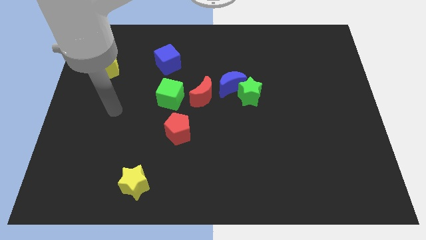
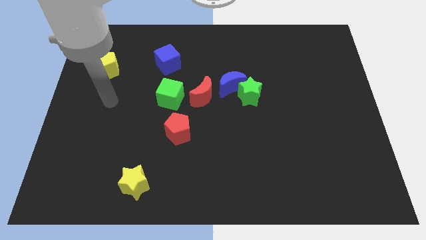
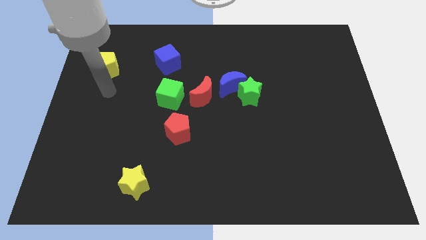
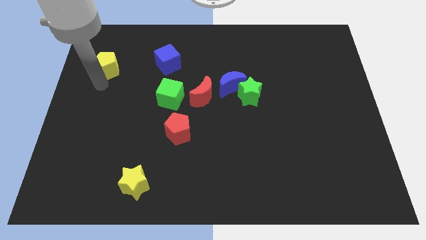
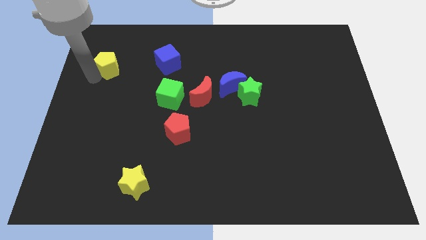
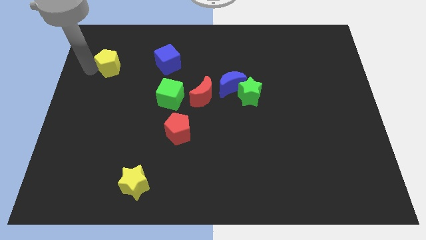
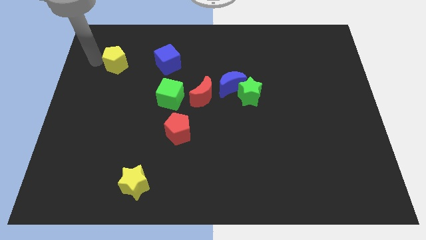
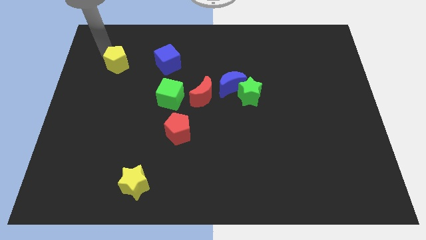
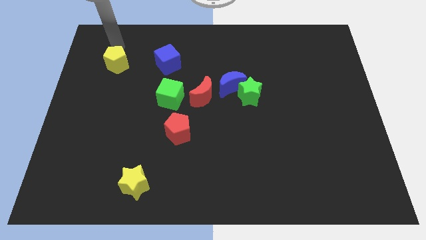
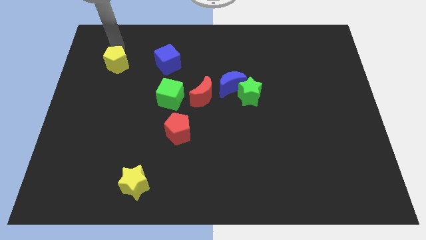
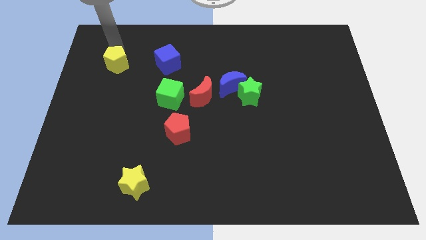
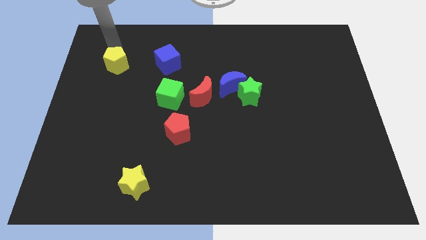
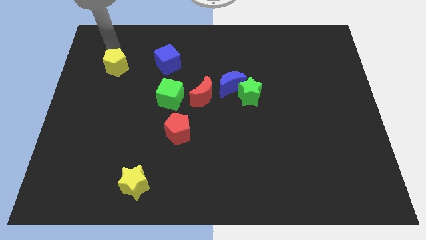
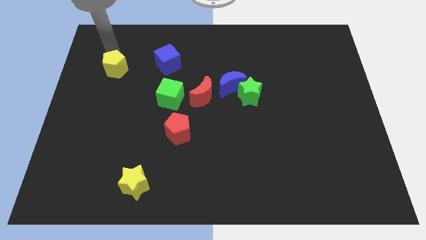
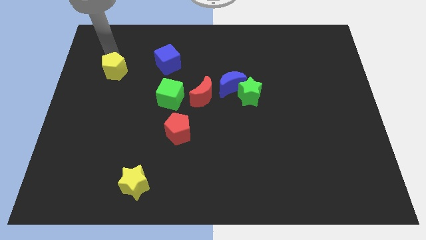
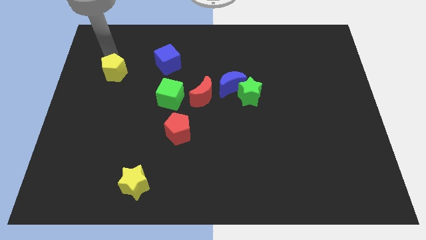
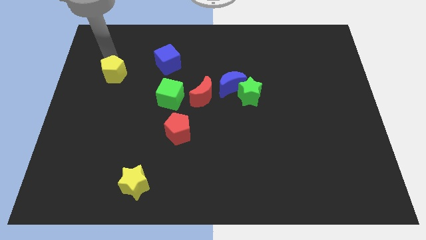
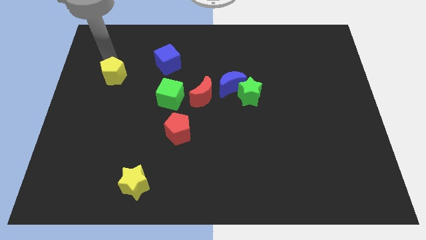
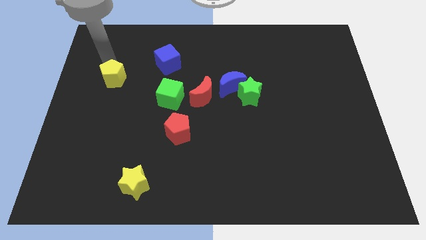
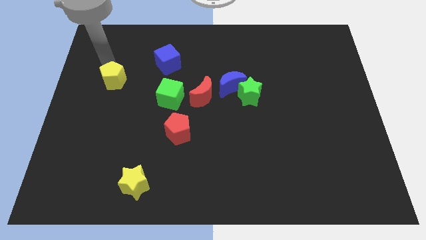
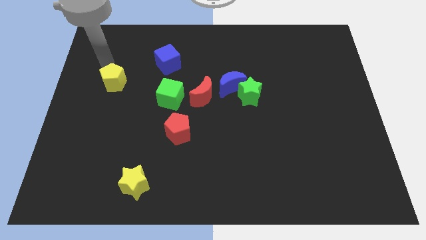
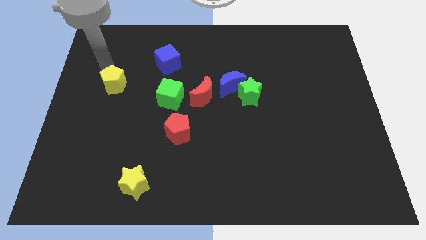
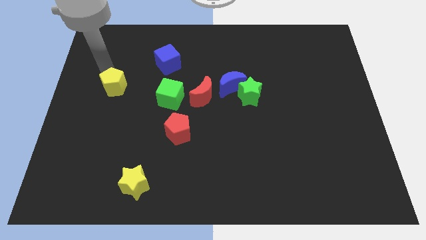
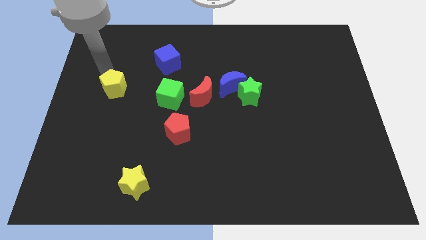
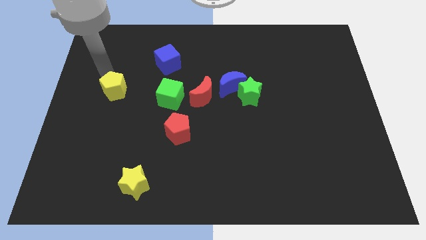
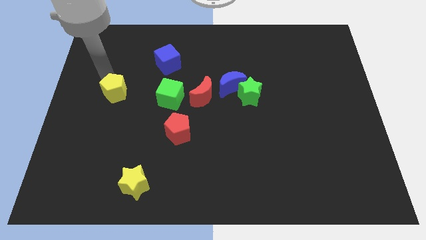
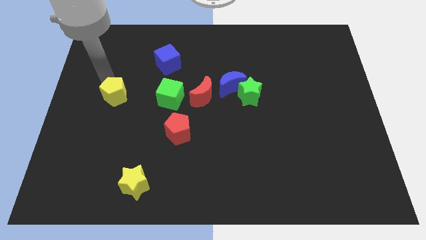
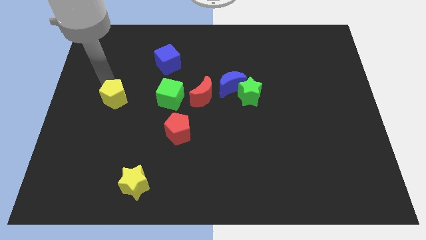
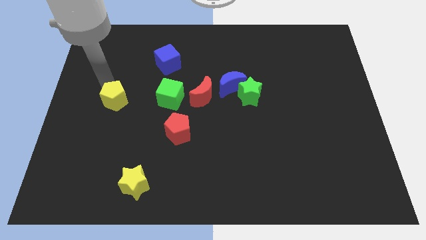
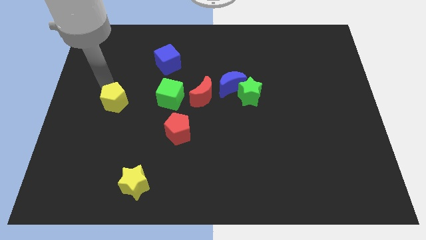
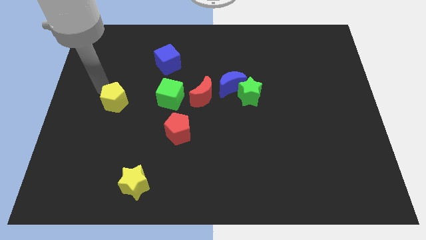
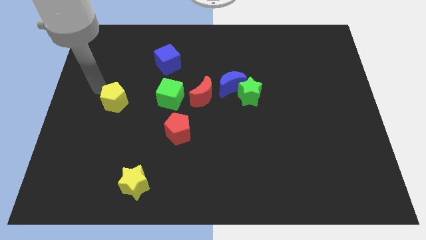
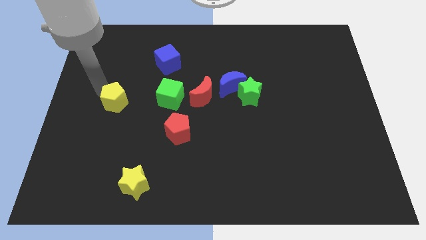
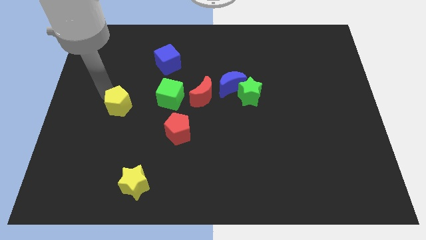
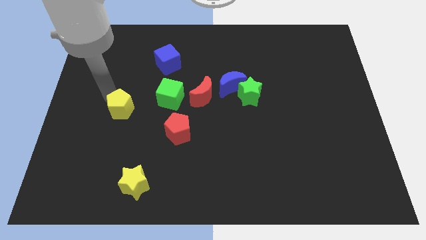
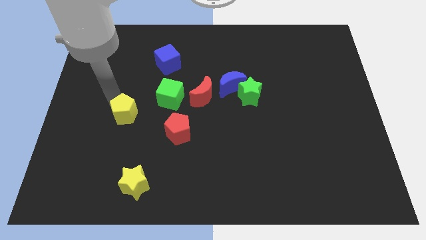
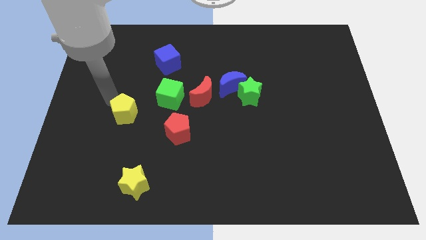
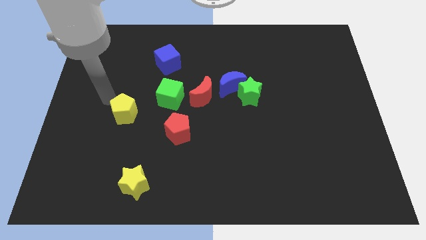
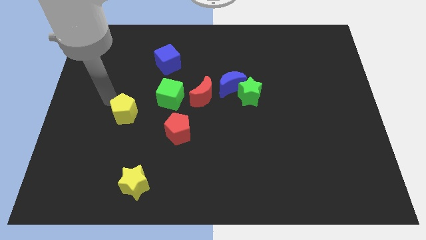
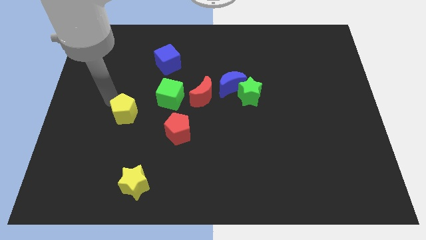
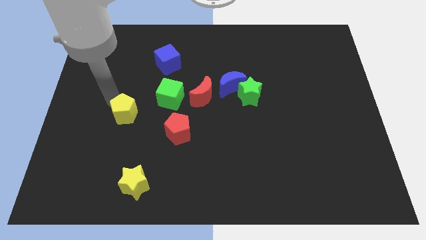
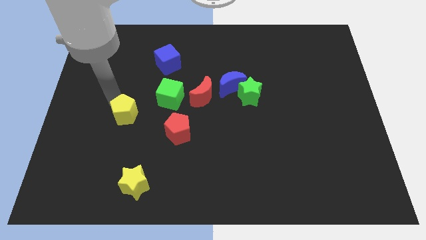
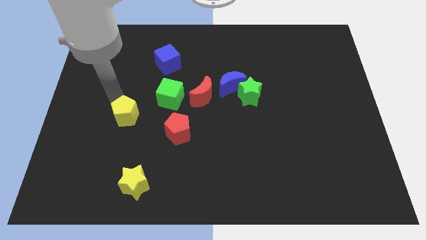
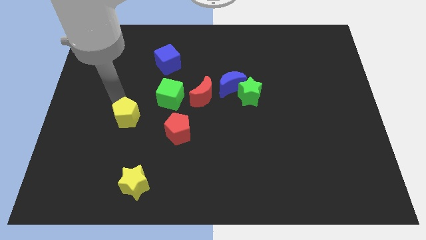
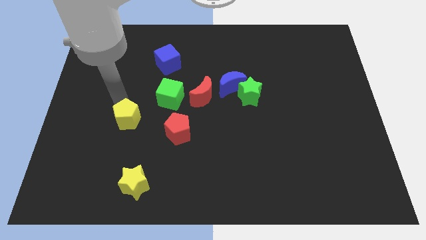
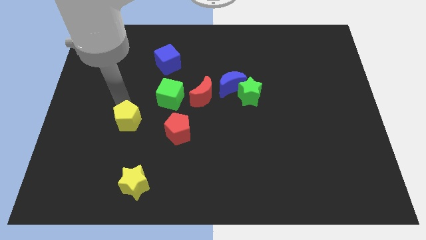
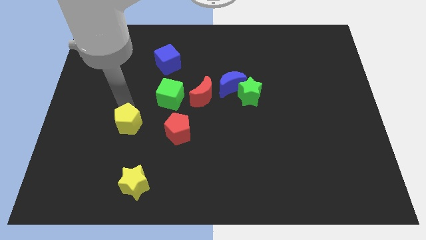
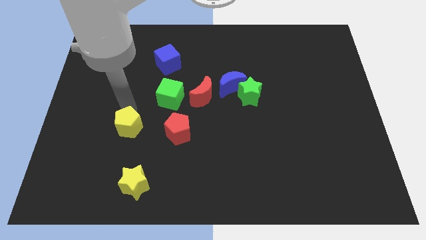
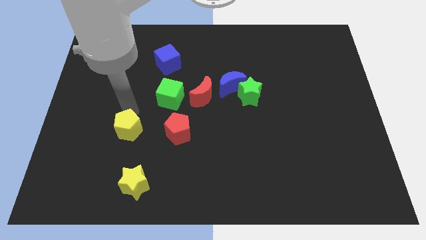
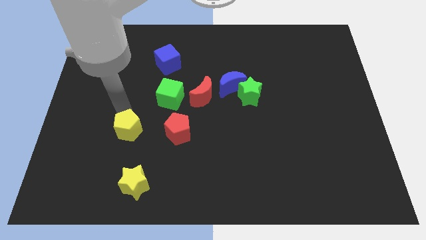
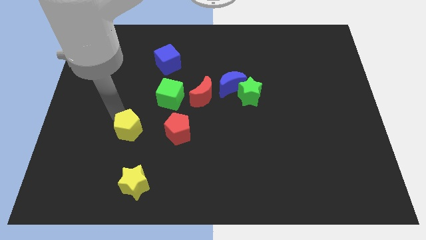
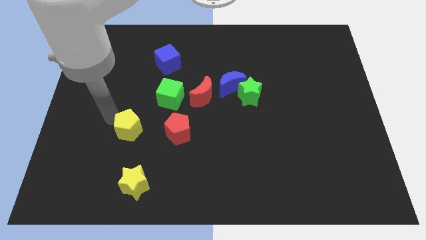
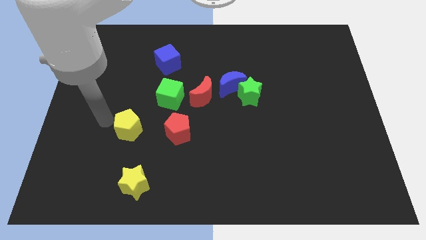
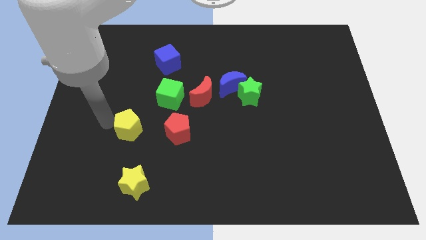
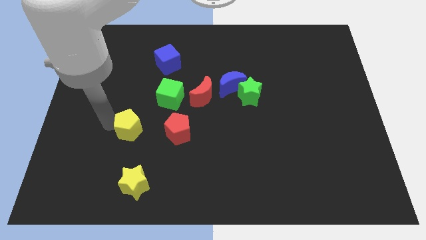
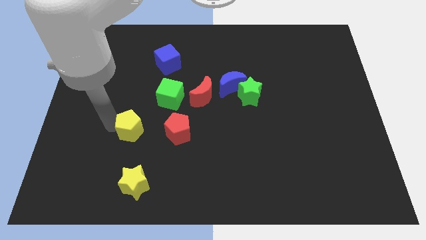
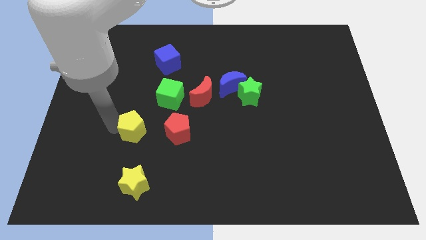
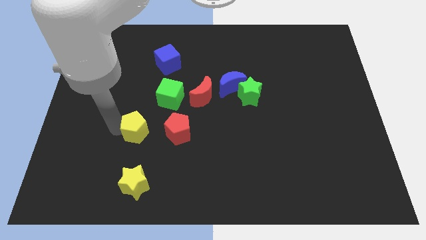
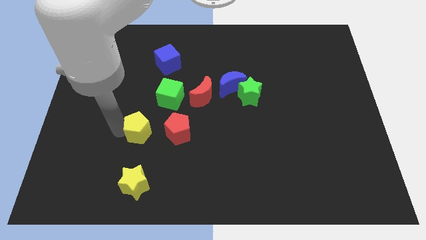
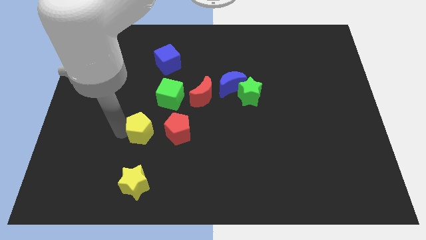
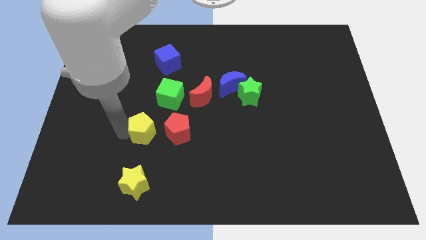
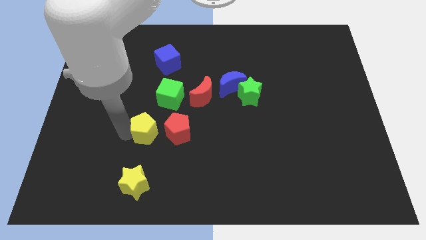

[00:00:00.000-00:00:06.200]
slide the yellow pentagon to the bottom of the green cube

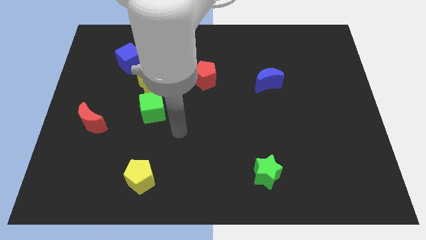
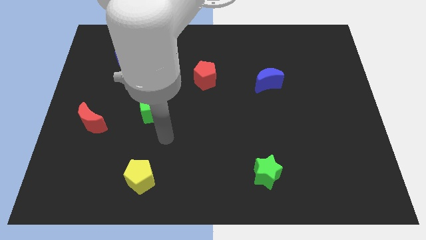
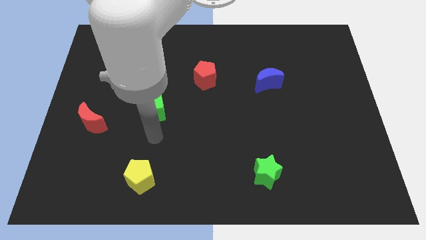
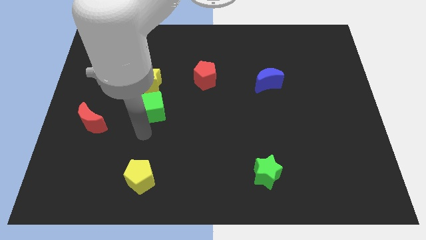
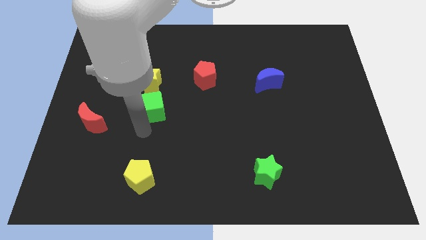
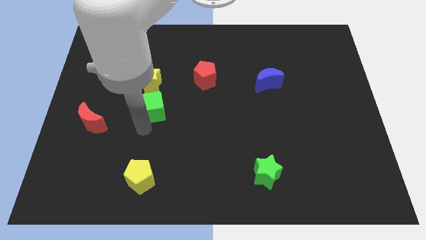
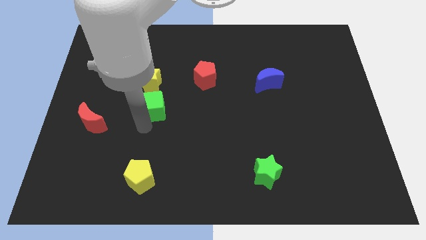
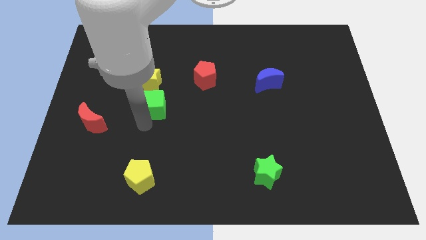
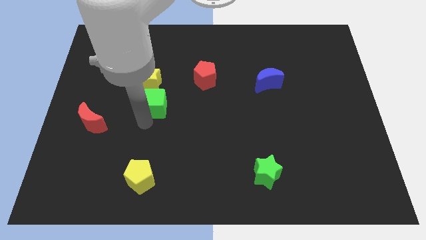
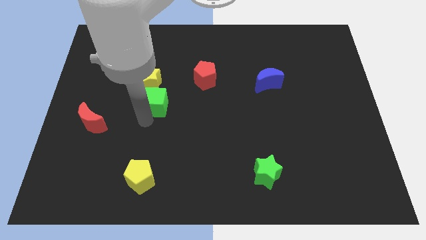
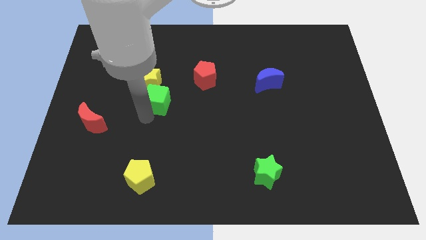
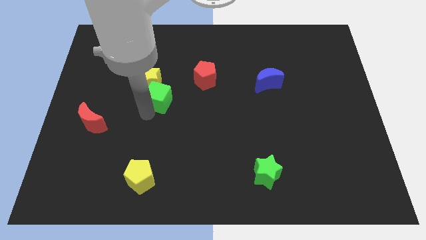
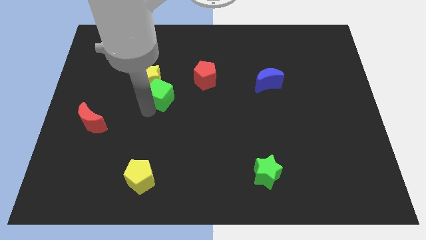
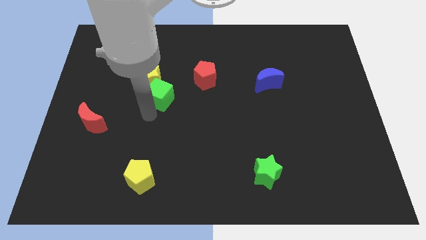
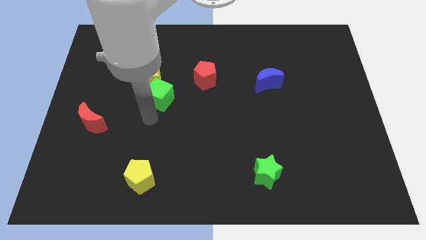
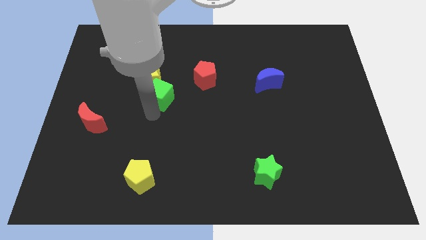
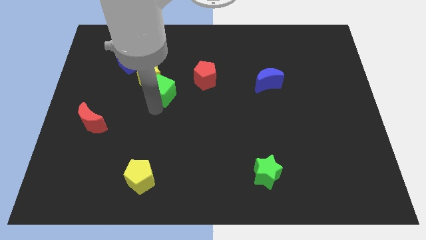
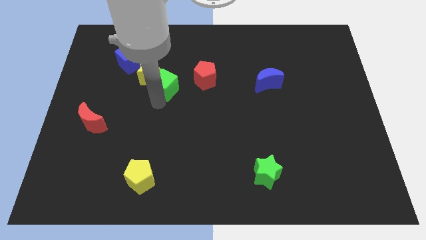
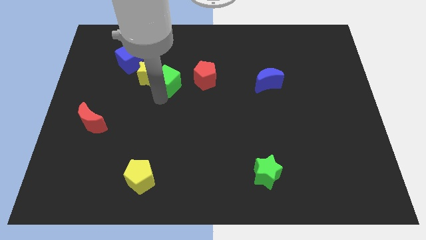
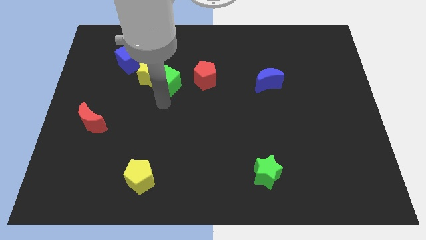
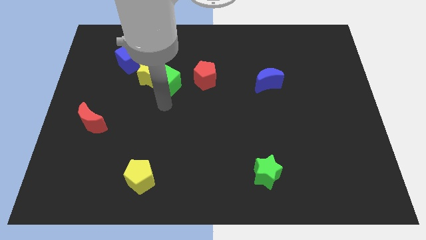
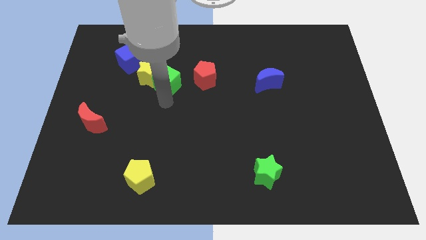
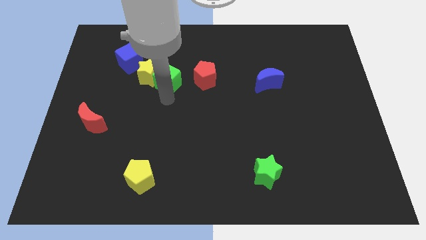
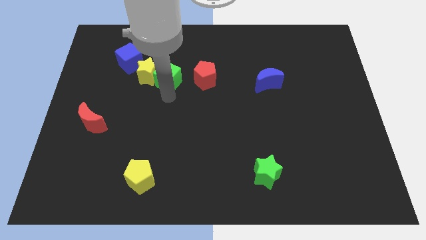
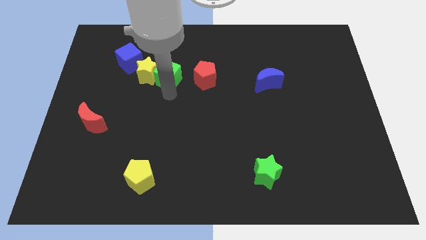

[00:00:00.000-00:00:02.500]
move the green cube diagonally up and to the right of the yellow star
